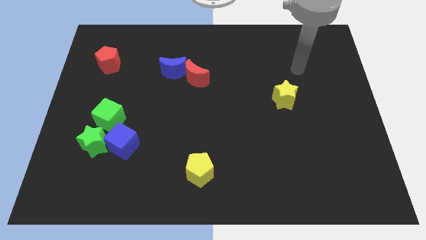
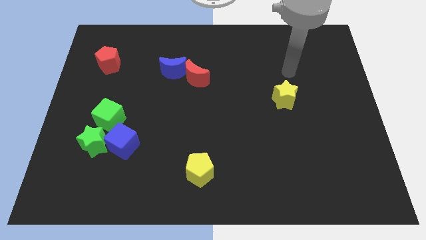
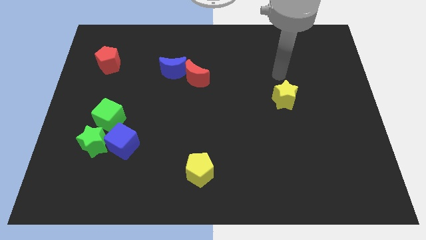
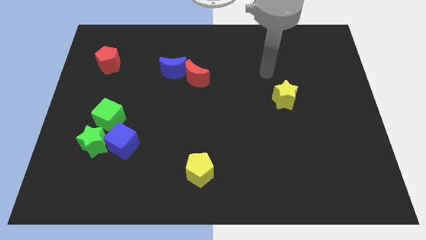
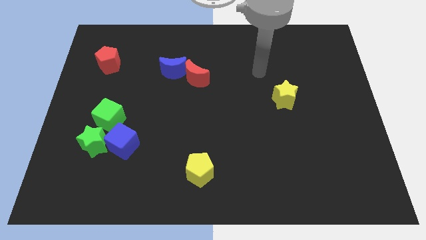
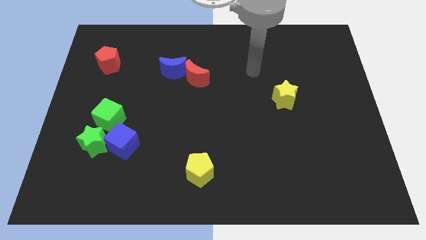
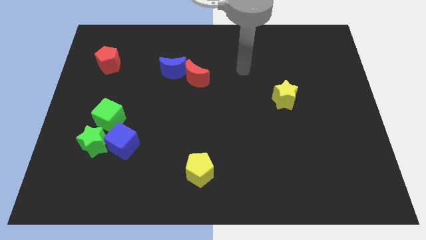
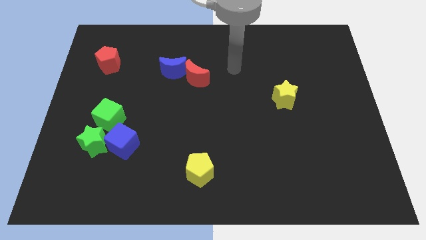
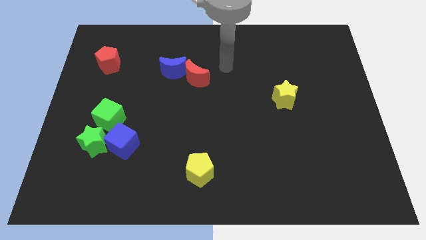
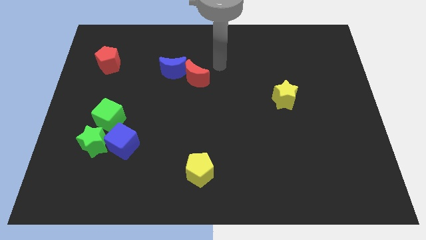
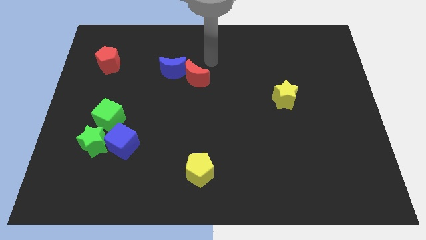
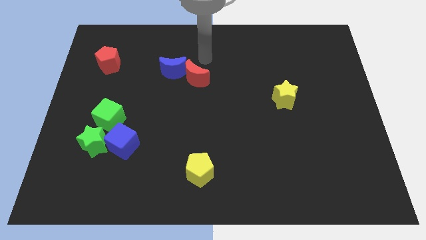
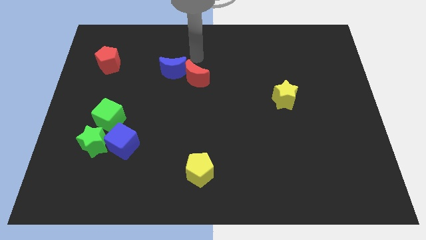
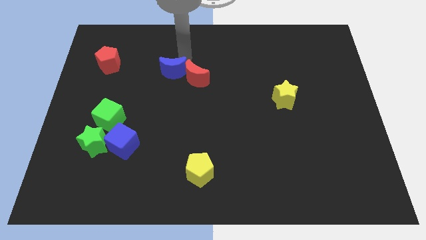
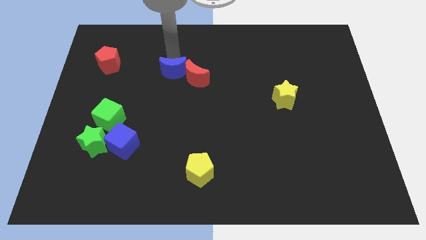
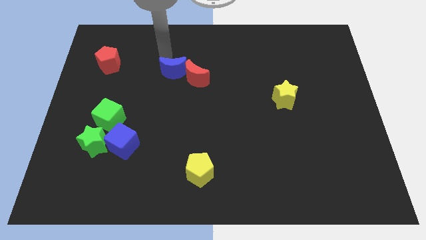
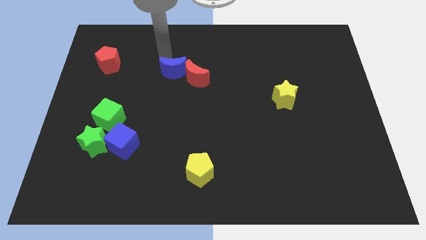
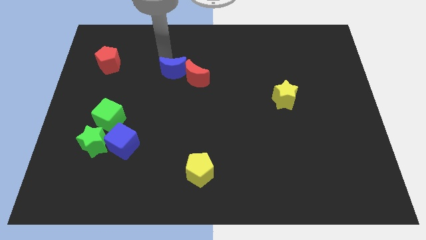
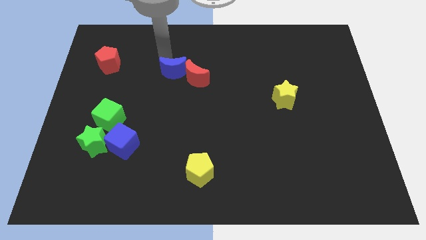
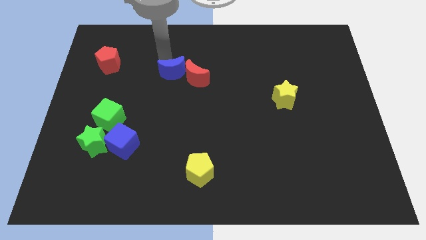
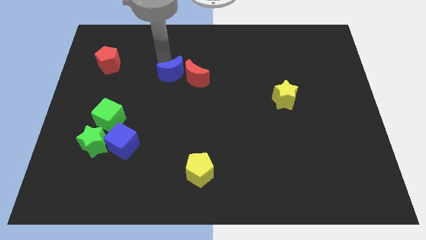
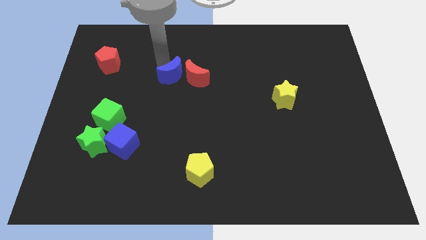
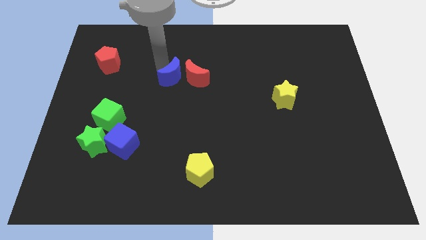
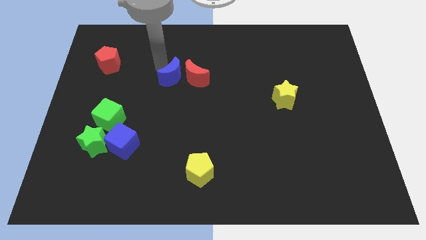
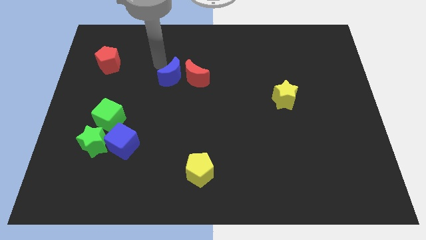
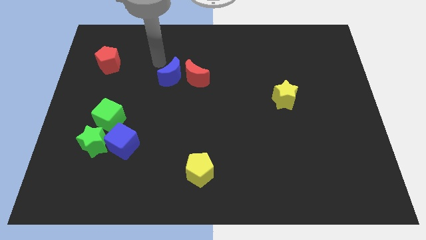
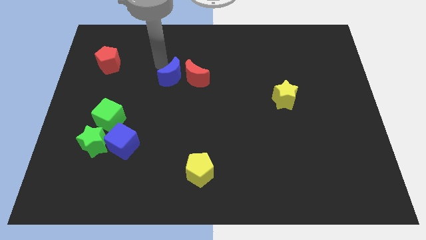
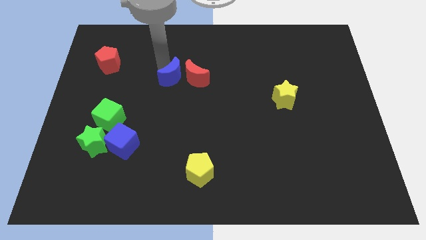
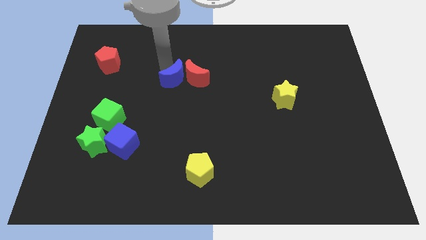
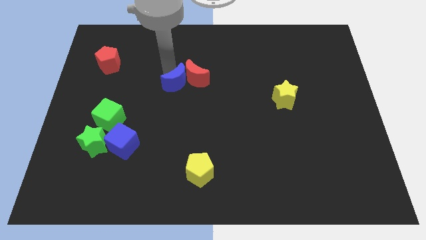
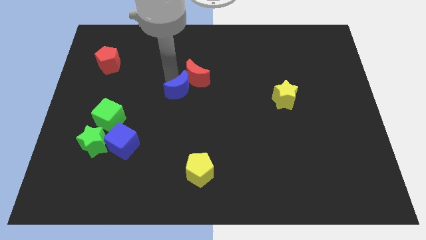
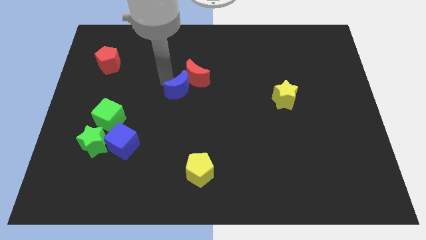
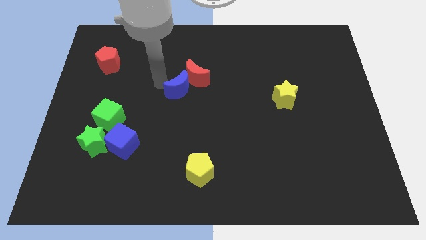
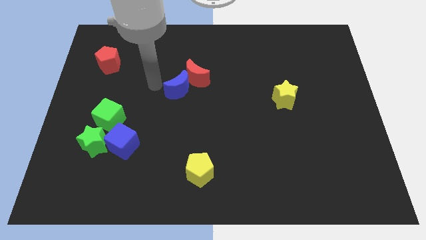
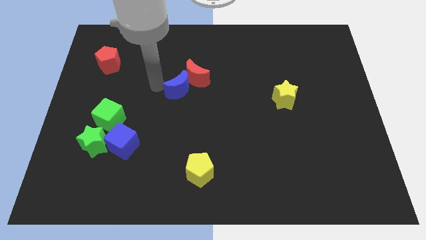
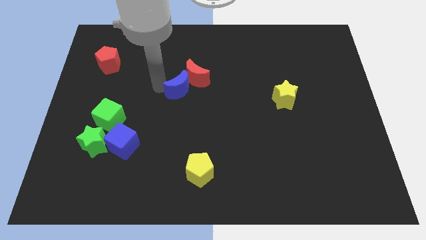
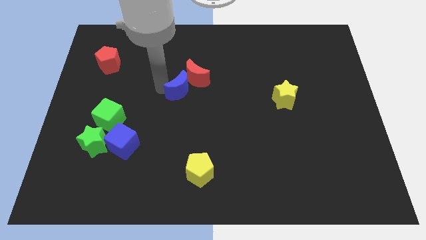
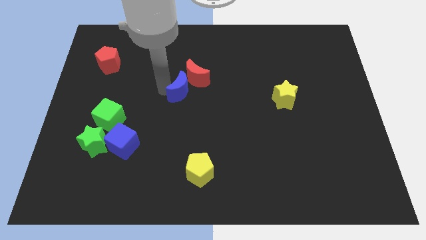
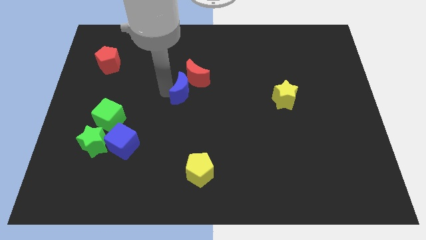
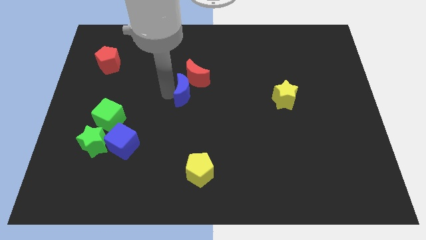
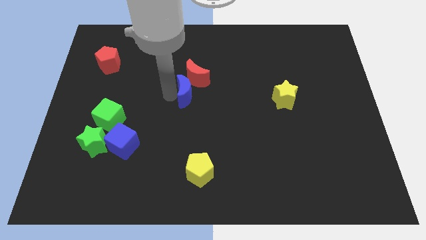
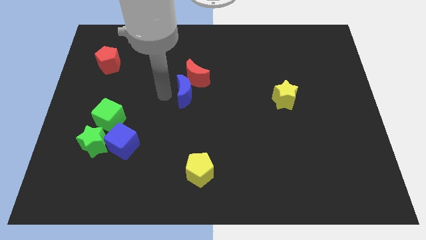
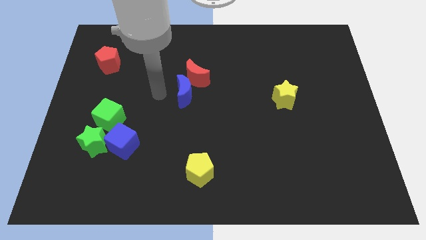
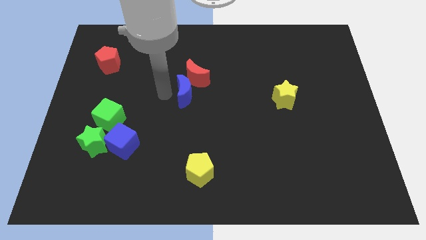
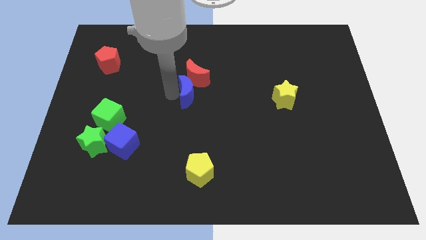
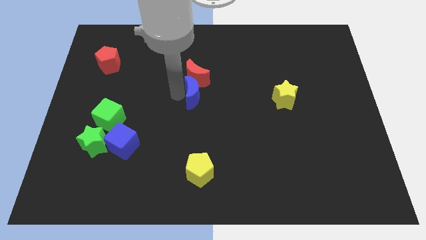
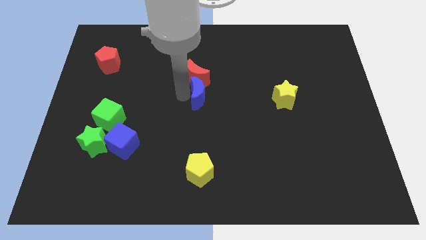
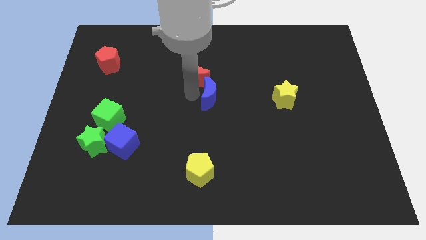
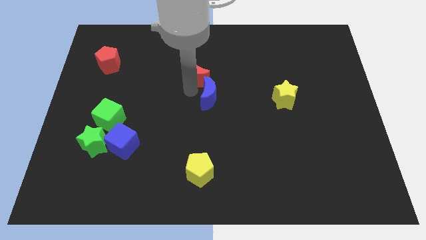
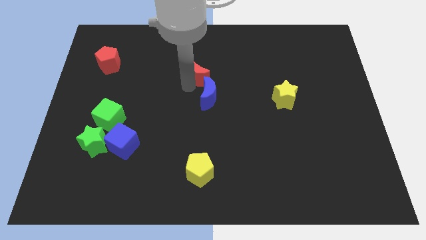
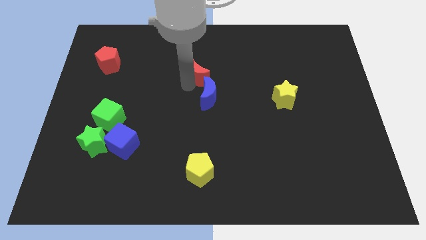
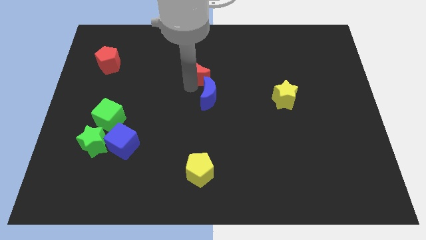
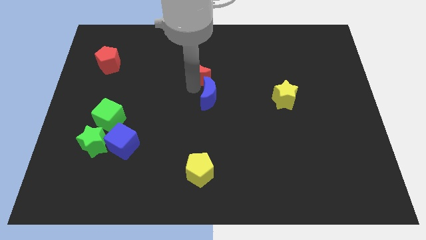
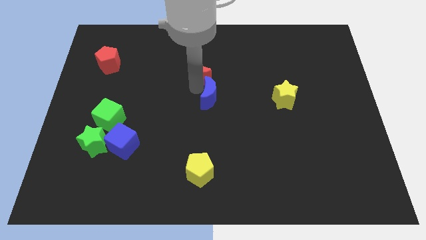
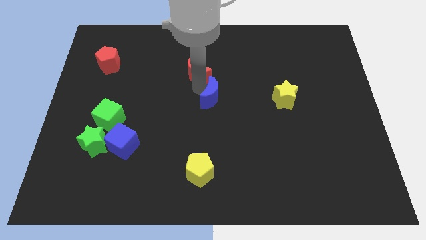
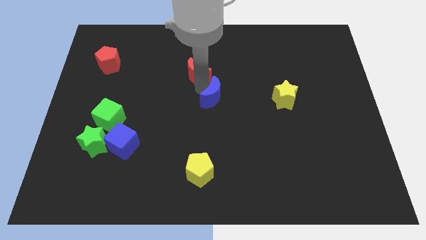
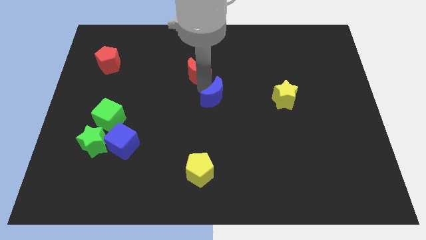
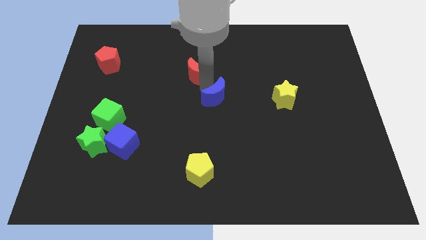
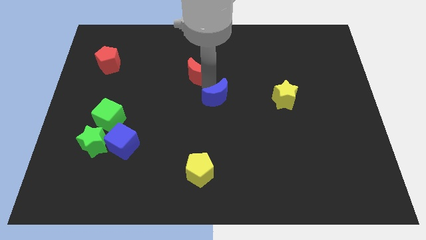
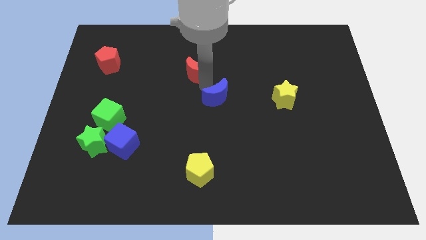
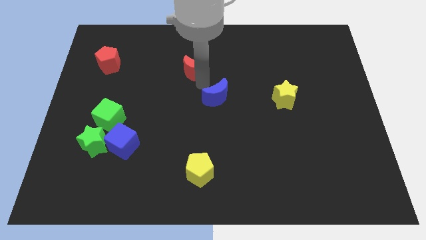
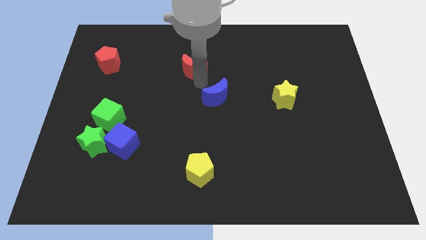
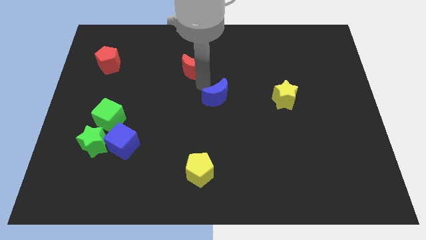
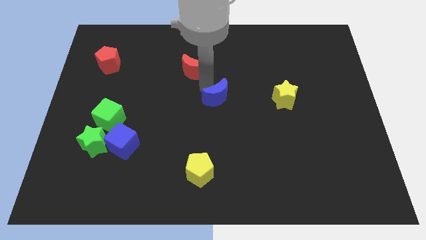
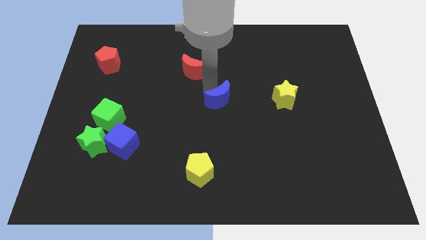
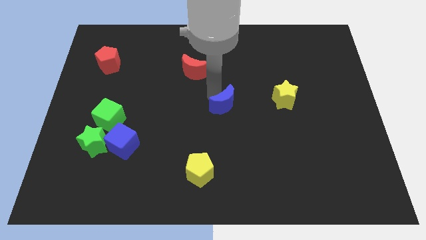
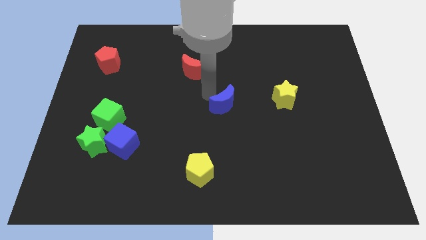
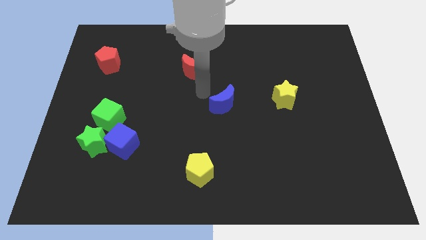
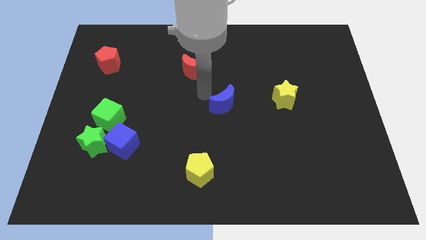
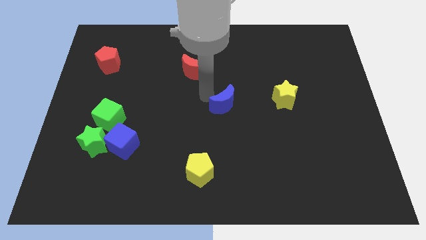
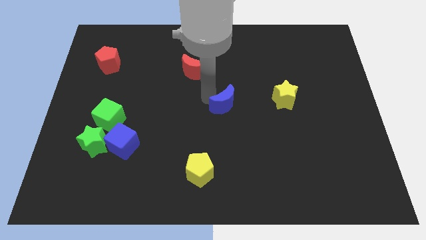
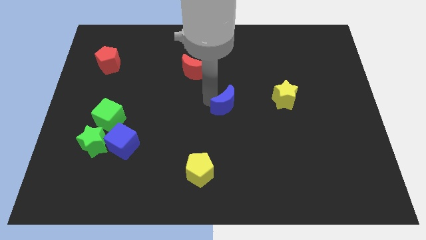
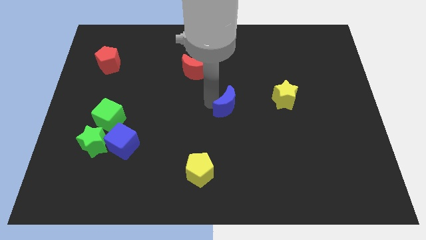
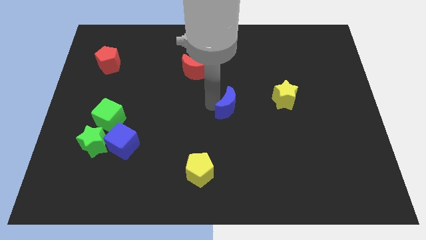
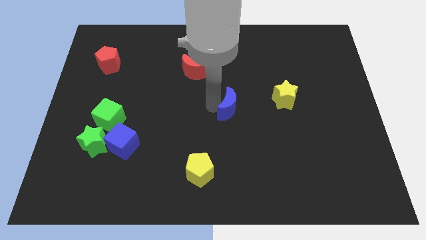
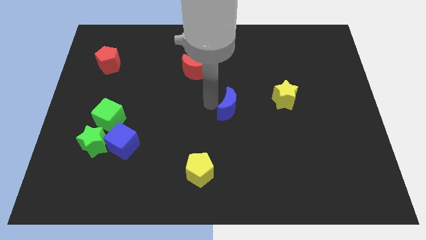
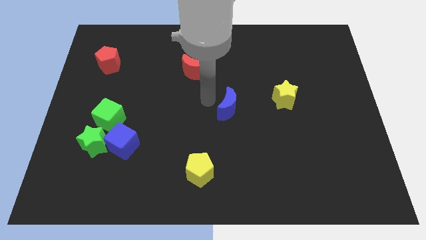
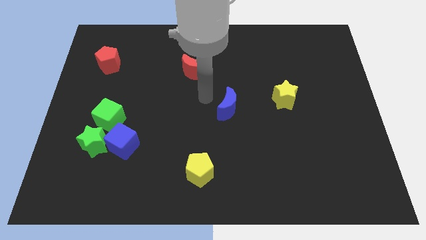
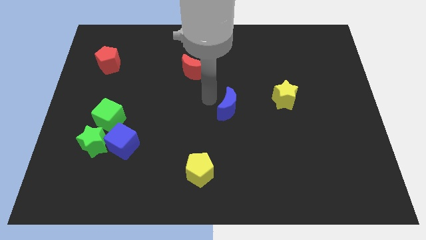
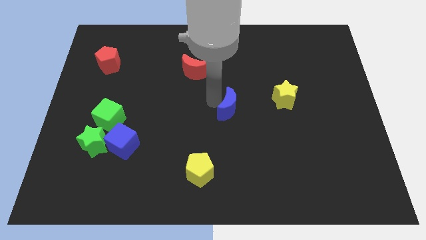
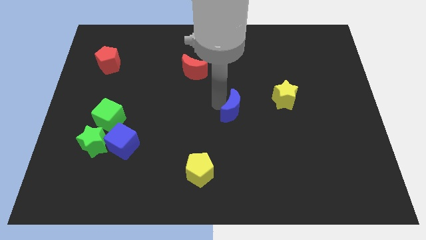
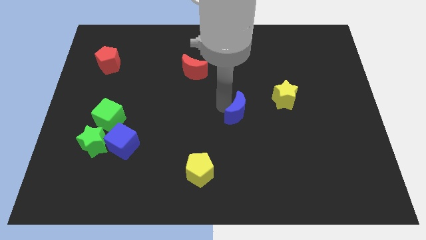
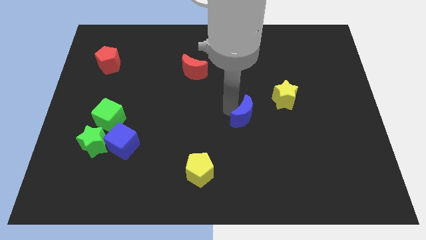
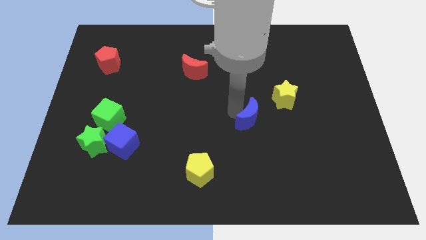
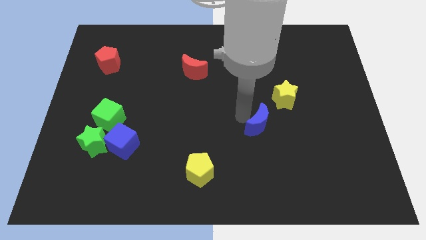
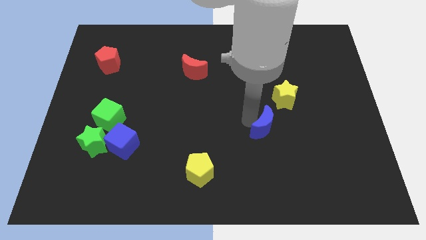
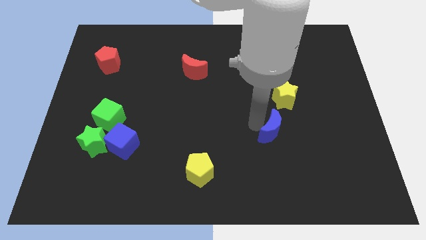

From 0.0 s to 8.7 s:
move the blue moon to the bottom side of the yellow star
